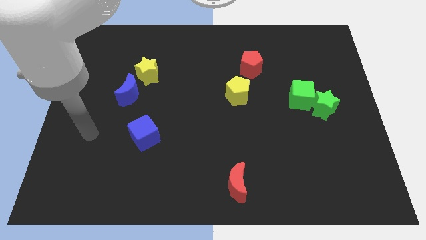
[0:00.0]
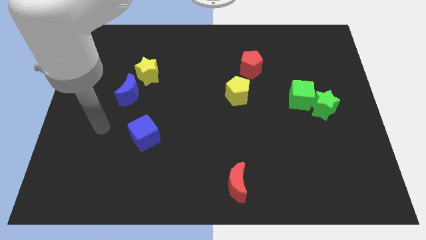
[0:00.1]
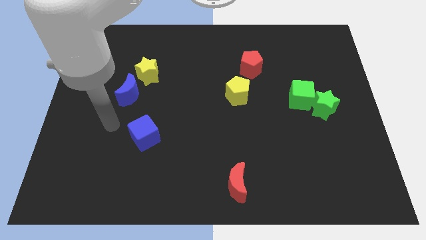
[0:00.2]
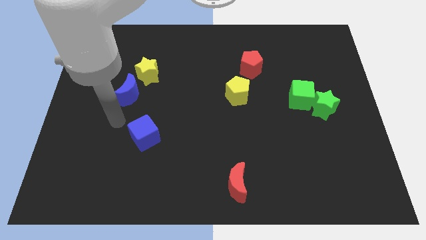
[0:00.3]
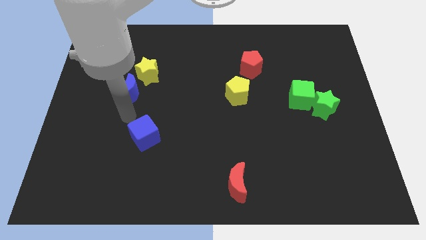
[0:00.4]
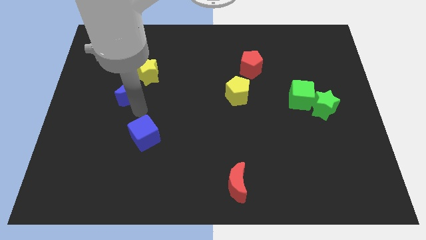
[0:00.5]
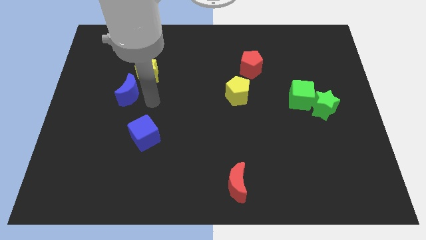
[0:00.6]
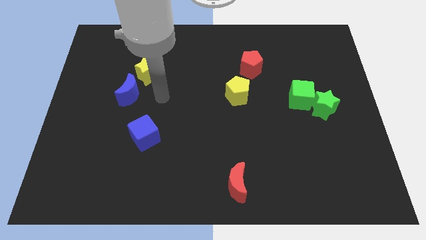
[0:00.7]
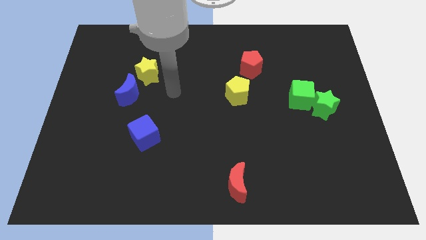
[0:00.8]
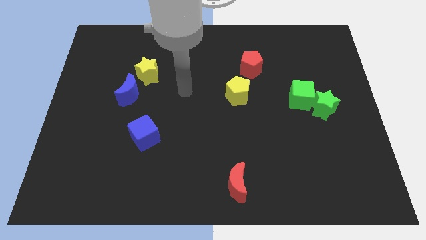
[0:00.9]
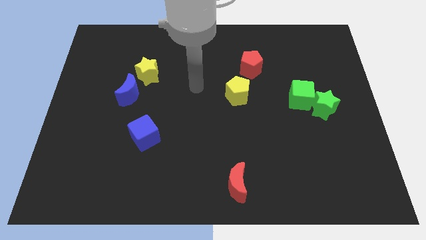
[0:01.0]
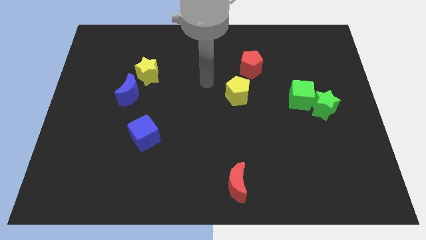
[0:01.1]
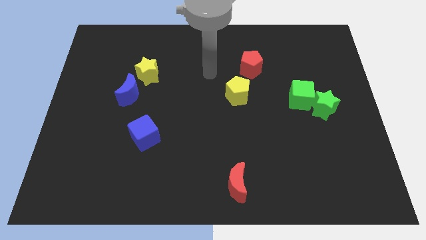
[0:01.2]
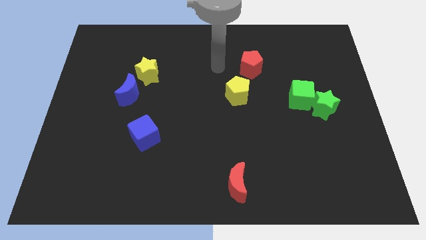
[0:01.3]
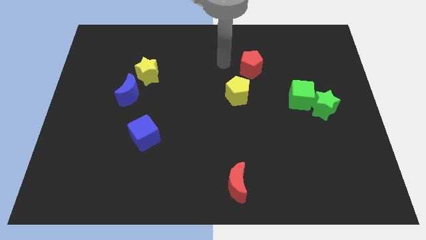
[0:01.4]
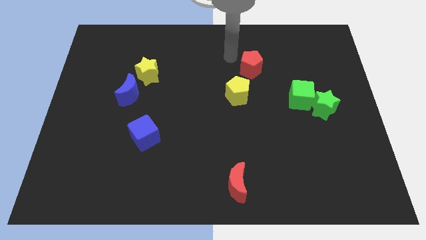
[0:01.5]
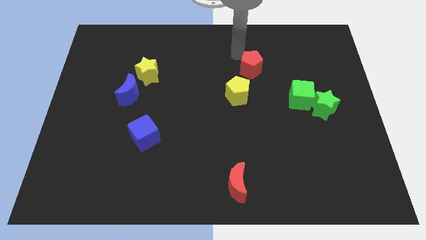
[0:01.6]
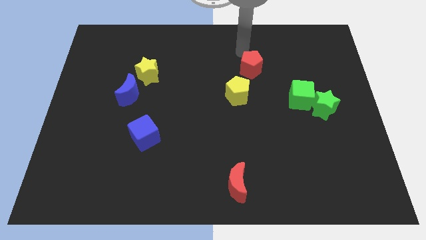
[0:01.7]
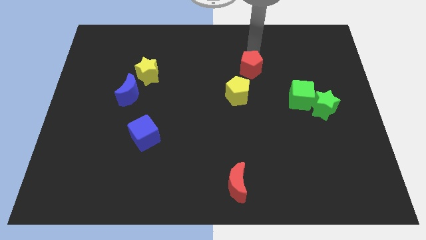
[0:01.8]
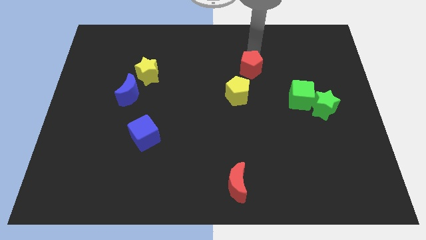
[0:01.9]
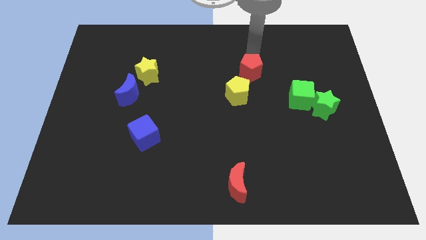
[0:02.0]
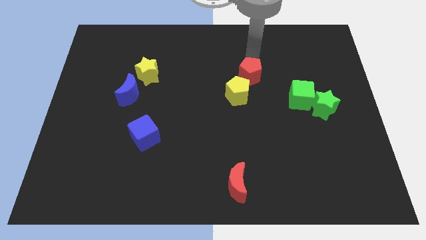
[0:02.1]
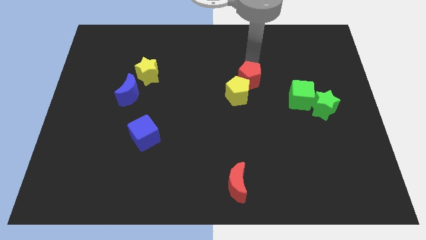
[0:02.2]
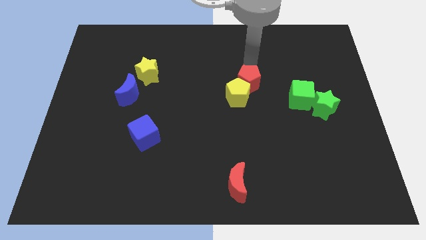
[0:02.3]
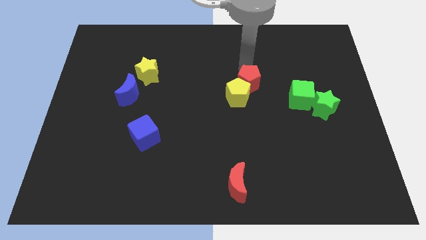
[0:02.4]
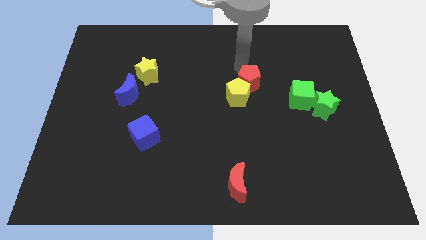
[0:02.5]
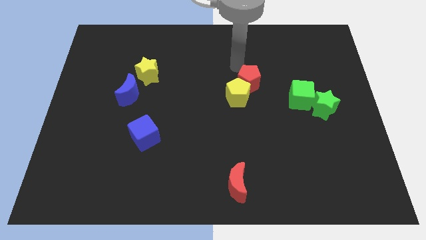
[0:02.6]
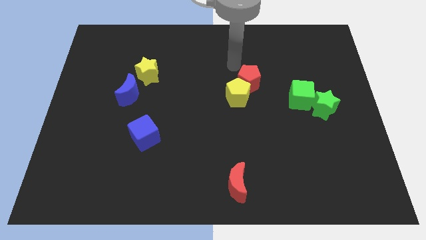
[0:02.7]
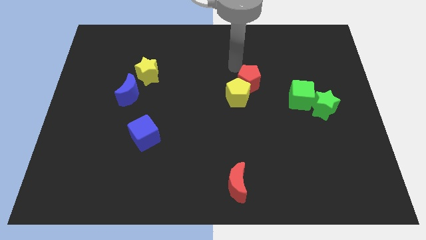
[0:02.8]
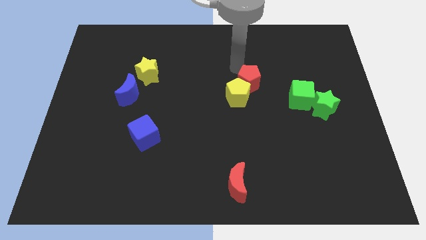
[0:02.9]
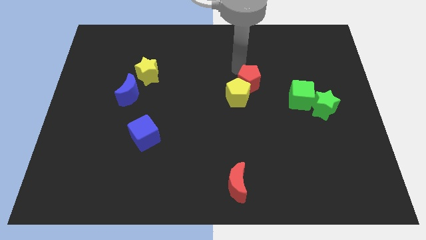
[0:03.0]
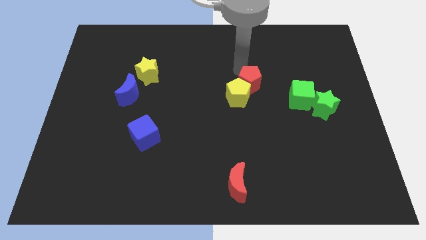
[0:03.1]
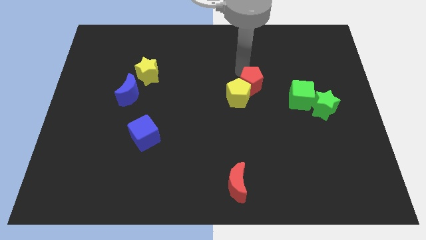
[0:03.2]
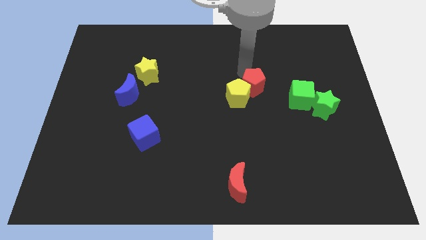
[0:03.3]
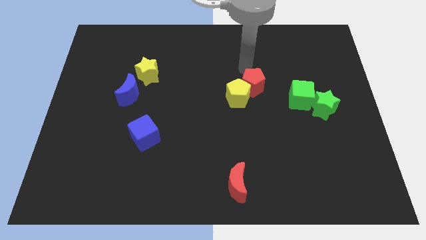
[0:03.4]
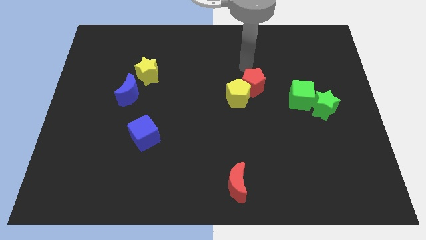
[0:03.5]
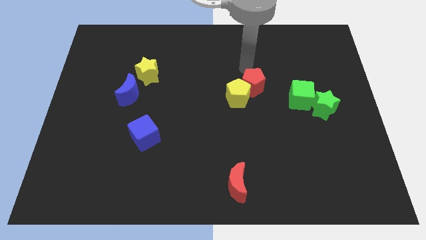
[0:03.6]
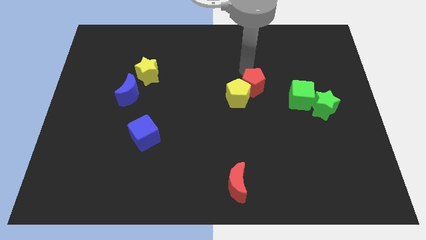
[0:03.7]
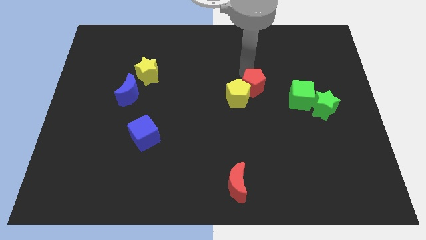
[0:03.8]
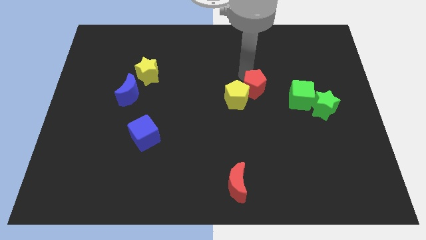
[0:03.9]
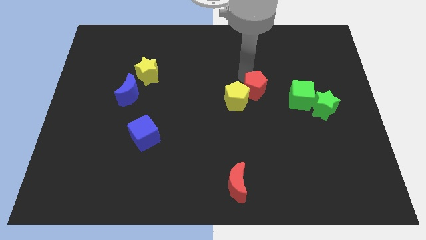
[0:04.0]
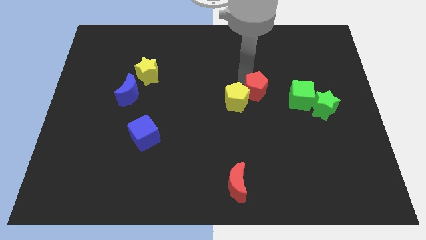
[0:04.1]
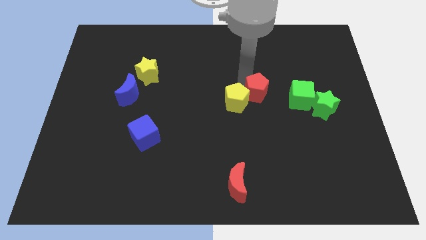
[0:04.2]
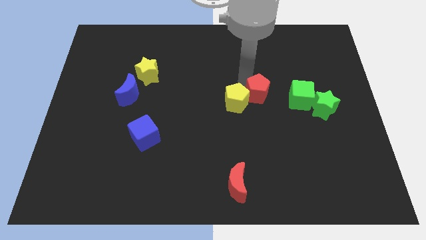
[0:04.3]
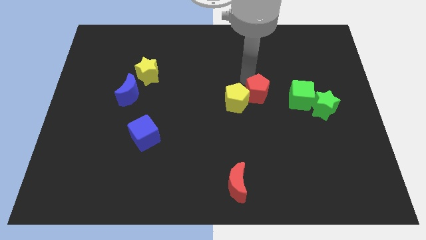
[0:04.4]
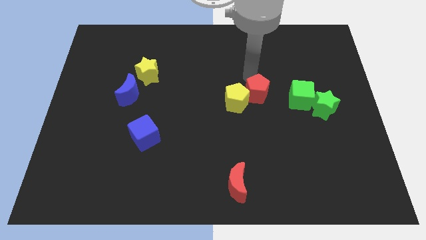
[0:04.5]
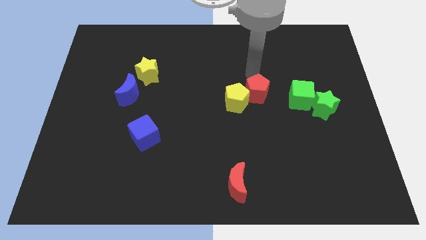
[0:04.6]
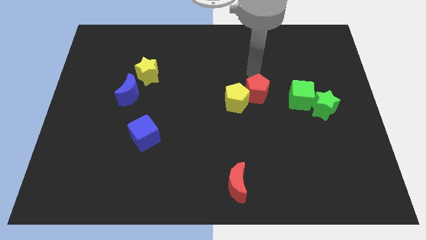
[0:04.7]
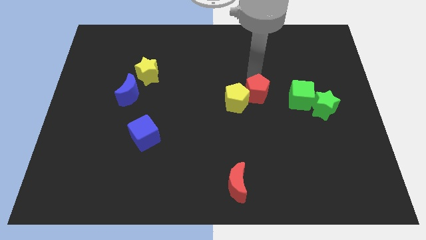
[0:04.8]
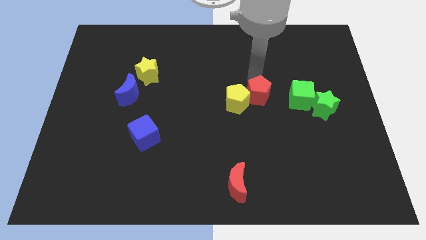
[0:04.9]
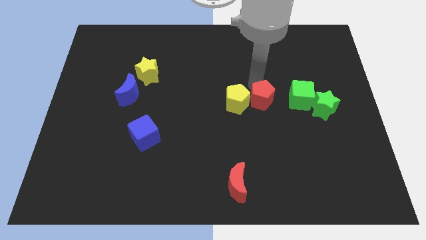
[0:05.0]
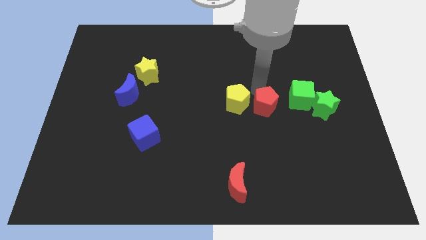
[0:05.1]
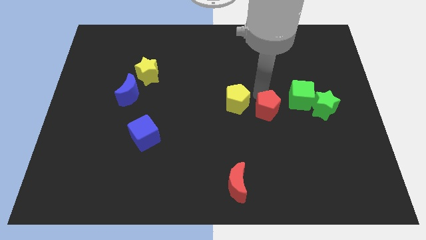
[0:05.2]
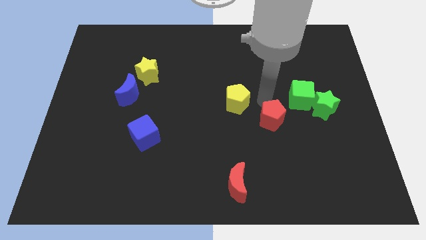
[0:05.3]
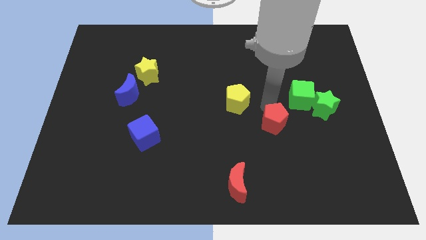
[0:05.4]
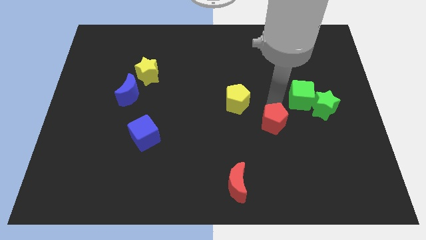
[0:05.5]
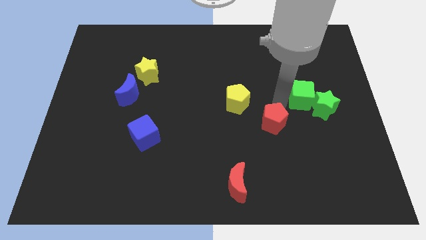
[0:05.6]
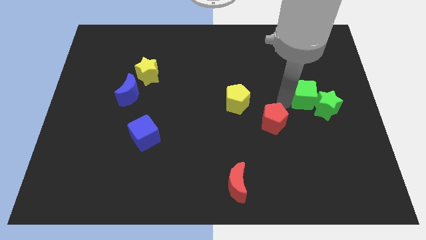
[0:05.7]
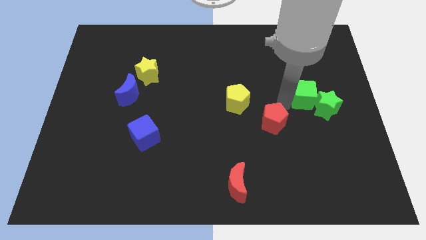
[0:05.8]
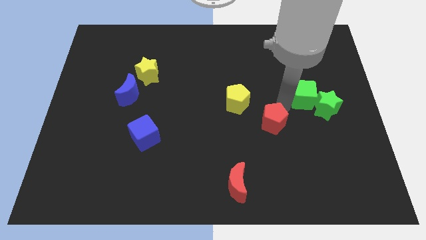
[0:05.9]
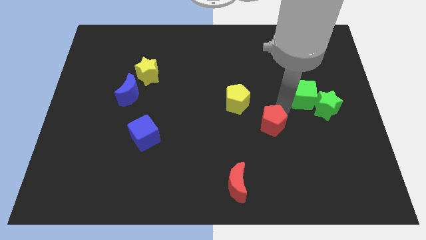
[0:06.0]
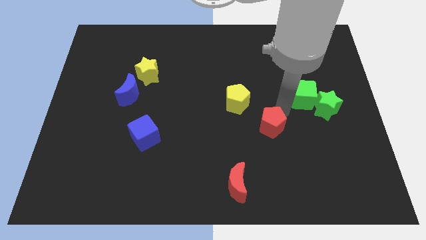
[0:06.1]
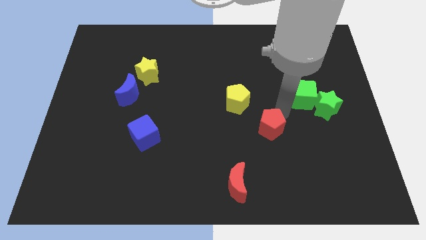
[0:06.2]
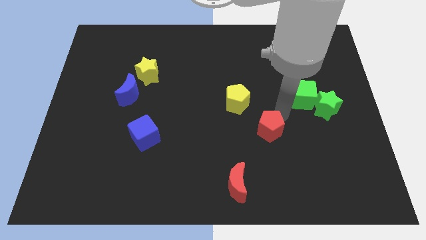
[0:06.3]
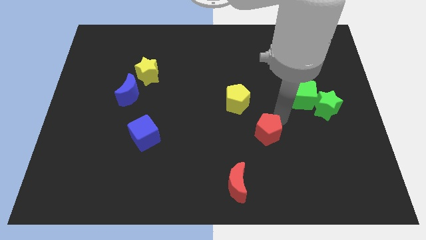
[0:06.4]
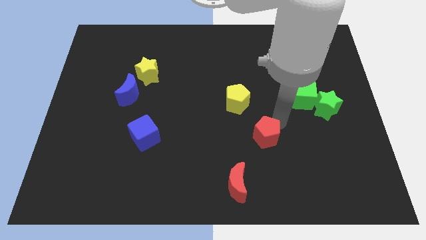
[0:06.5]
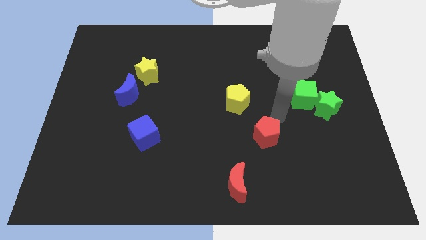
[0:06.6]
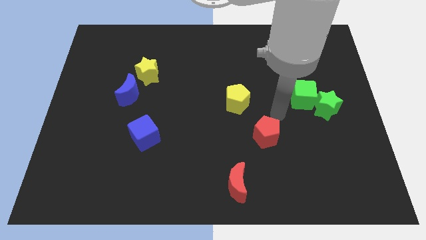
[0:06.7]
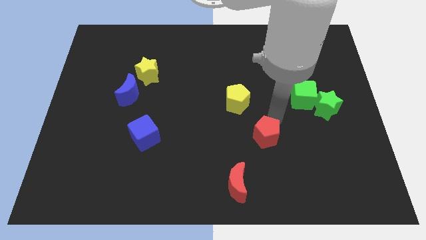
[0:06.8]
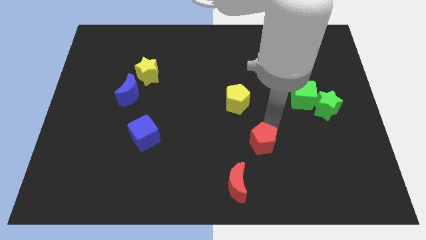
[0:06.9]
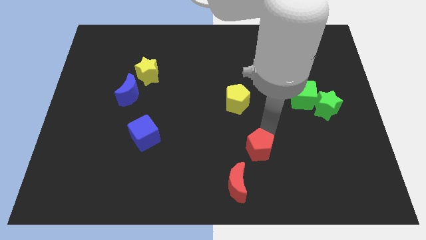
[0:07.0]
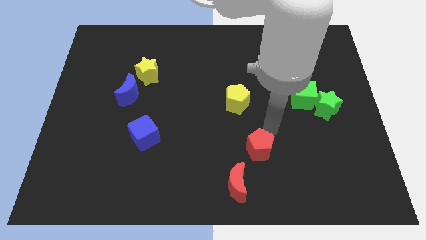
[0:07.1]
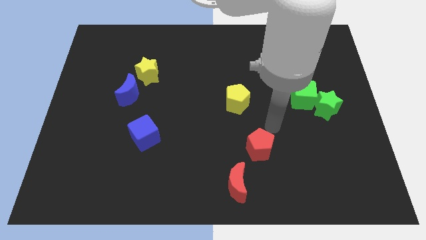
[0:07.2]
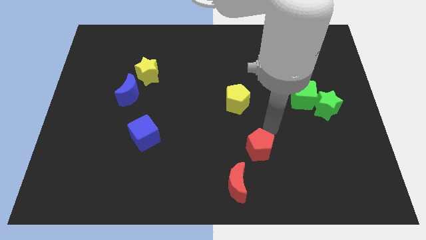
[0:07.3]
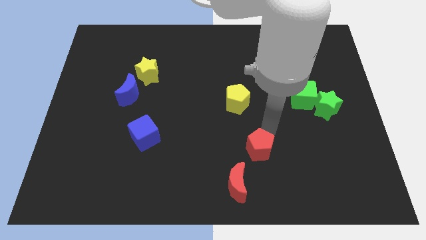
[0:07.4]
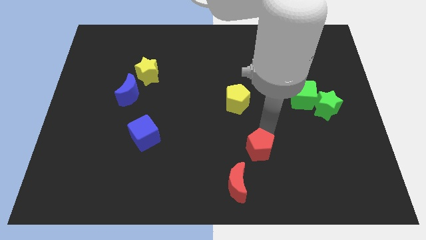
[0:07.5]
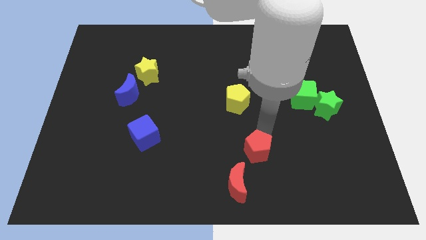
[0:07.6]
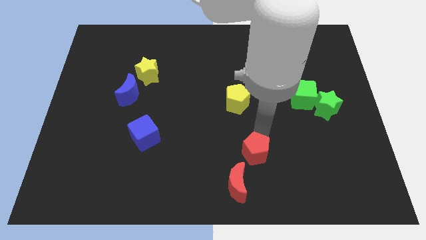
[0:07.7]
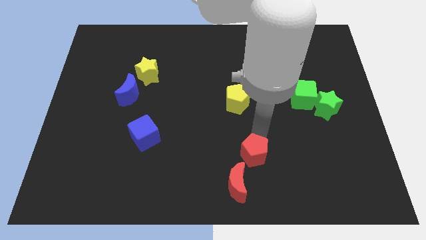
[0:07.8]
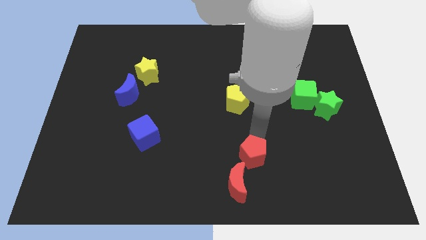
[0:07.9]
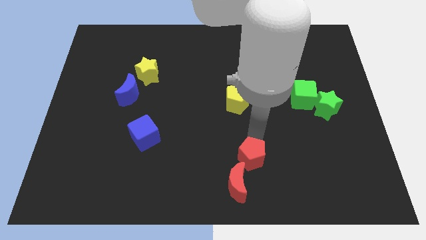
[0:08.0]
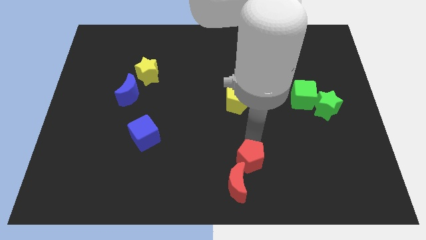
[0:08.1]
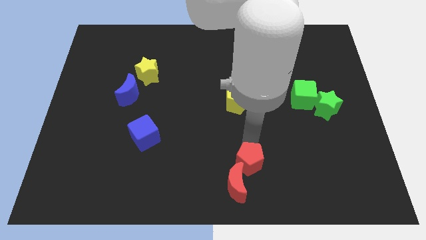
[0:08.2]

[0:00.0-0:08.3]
move the red pentagon close to the red moon
